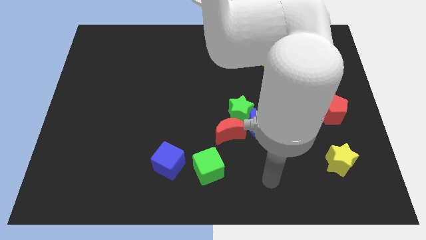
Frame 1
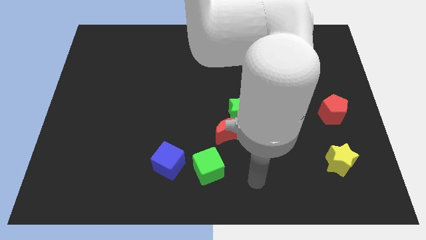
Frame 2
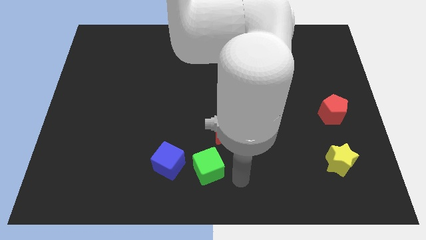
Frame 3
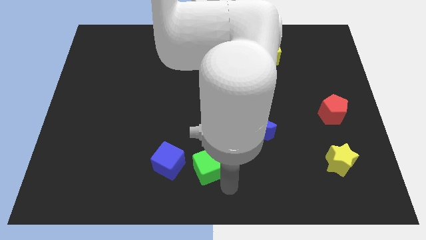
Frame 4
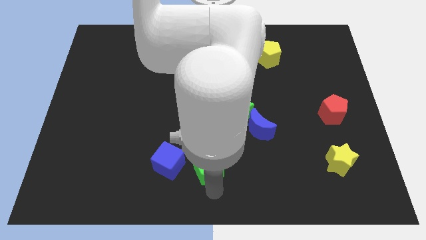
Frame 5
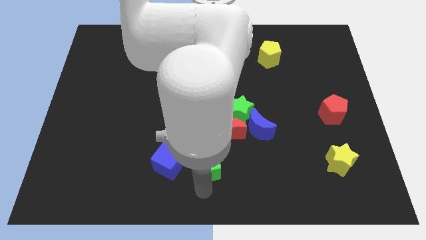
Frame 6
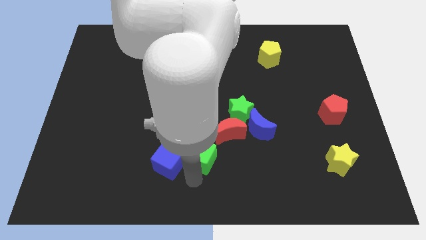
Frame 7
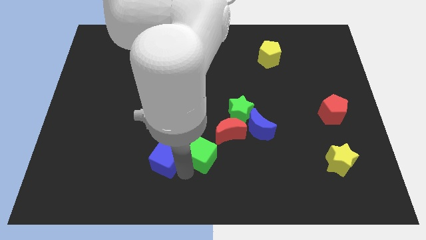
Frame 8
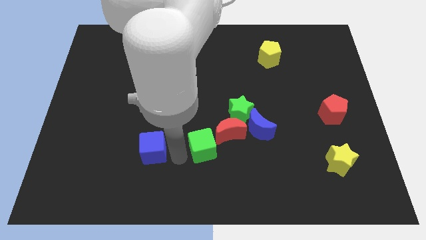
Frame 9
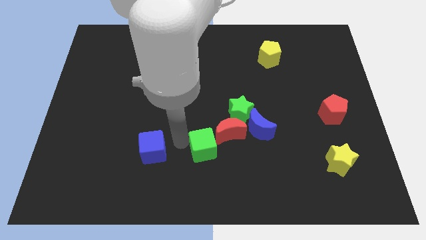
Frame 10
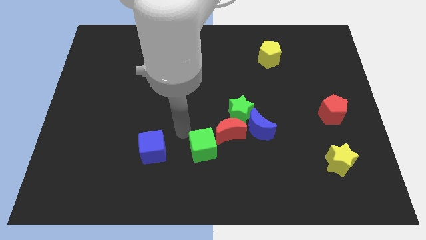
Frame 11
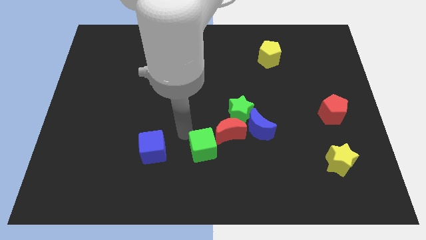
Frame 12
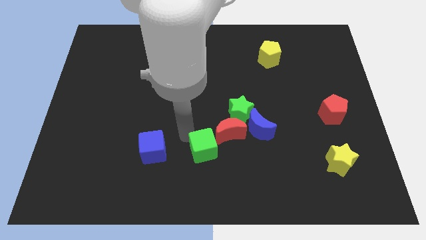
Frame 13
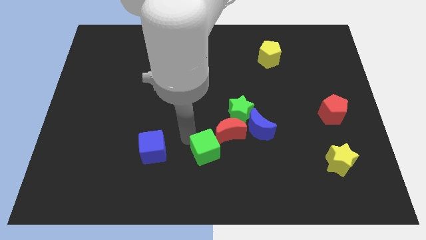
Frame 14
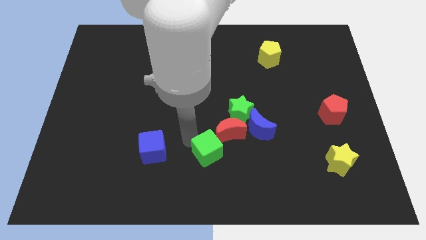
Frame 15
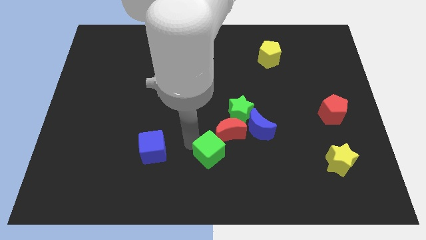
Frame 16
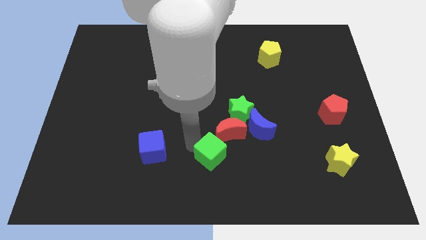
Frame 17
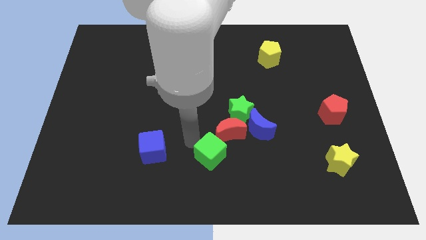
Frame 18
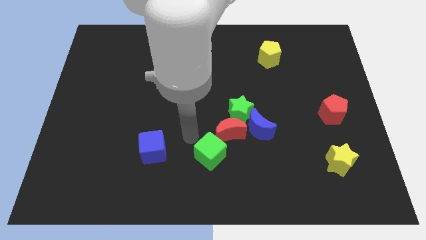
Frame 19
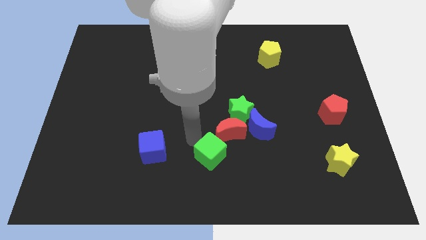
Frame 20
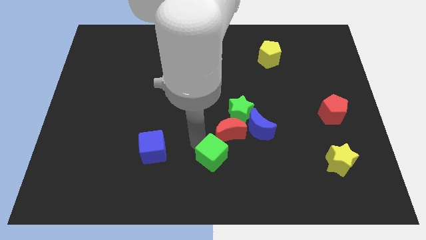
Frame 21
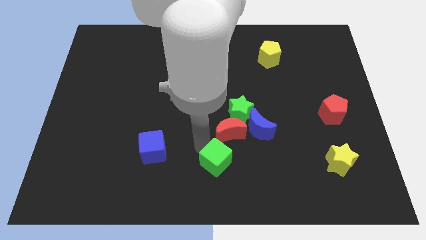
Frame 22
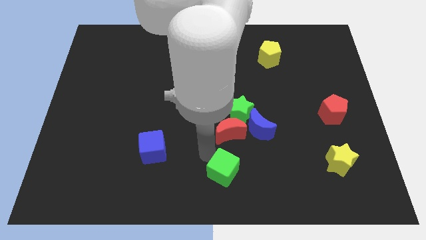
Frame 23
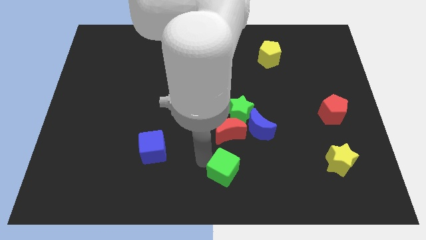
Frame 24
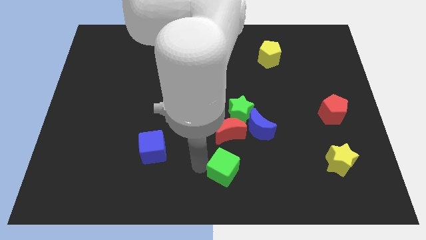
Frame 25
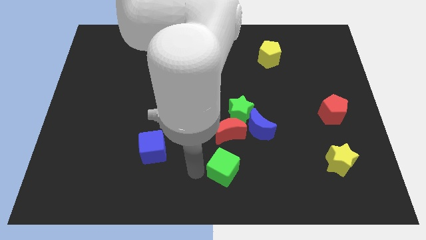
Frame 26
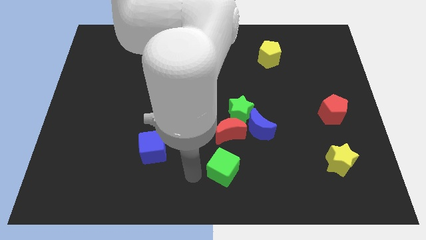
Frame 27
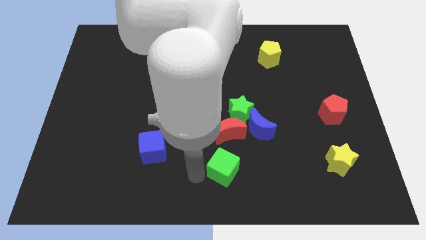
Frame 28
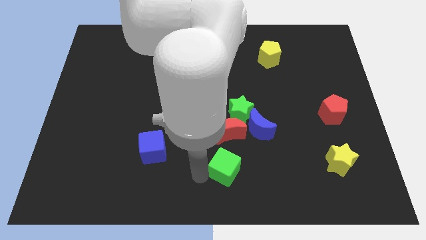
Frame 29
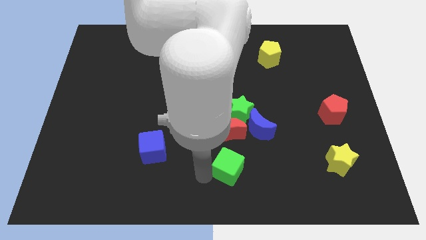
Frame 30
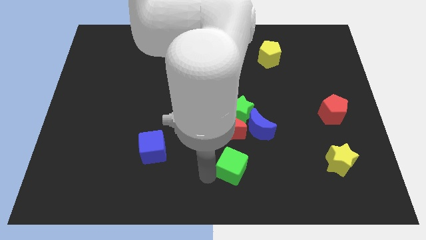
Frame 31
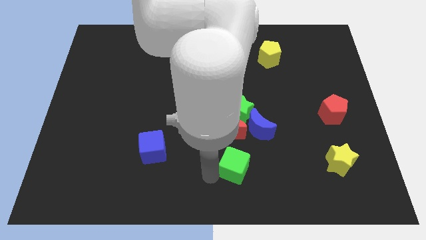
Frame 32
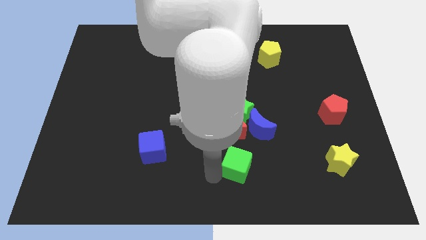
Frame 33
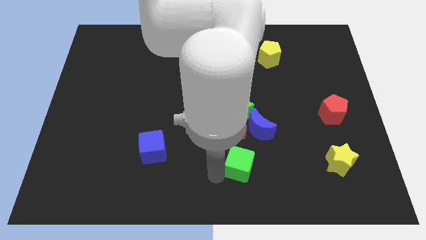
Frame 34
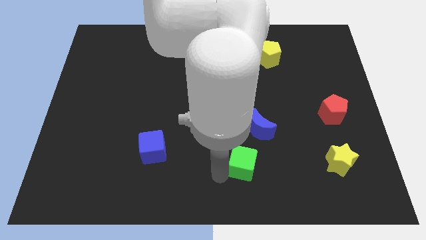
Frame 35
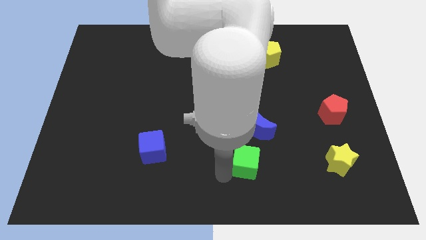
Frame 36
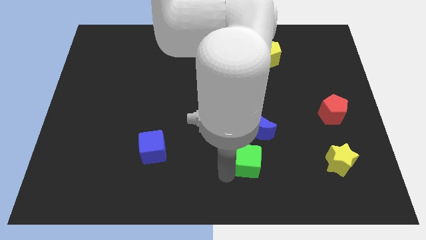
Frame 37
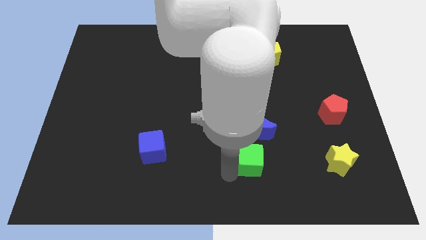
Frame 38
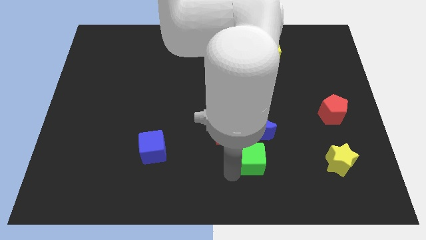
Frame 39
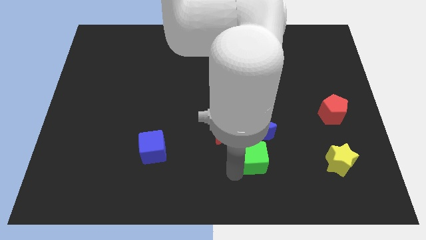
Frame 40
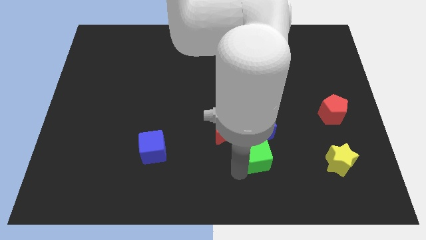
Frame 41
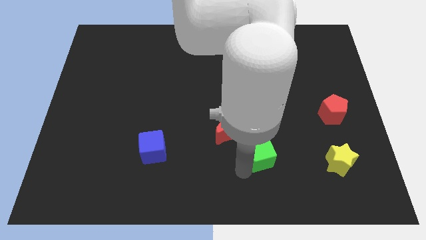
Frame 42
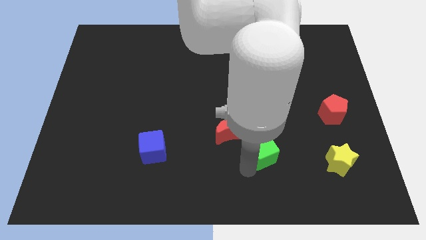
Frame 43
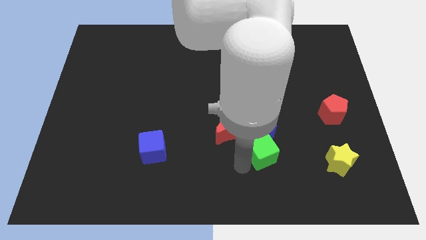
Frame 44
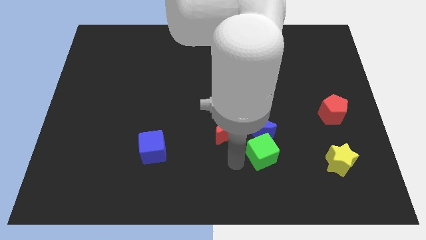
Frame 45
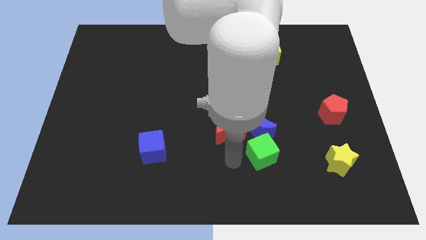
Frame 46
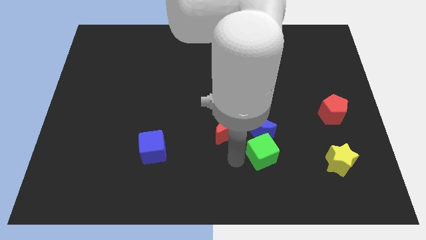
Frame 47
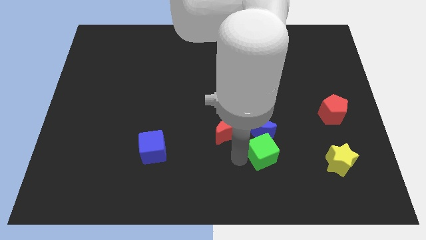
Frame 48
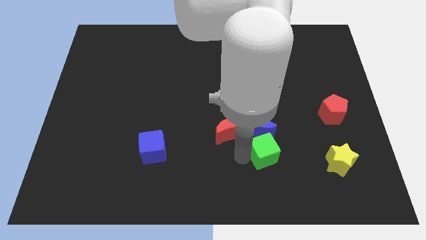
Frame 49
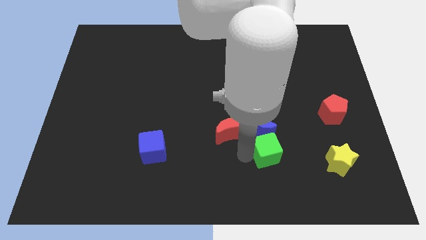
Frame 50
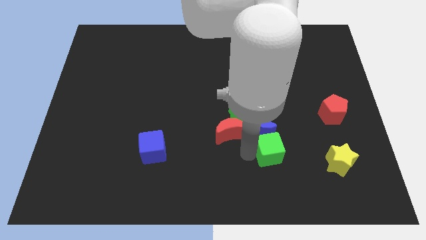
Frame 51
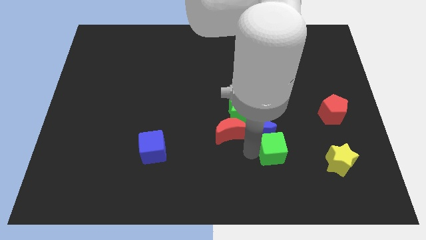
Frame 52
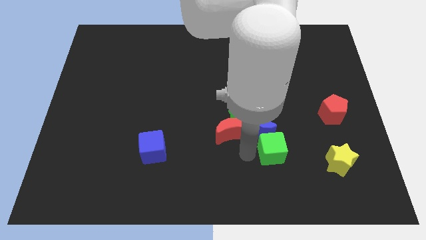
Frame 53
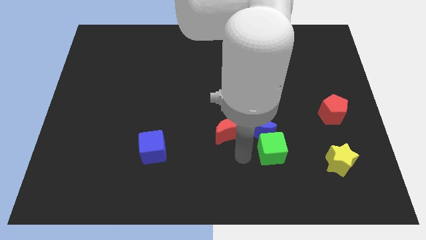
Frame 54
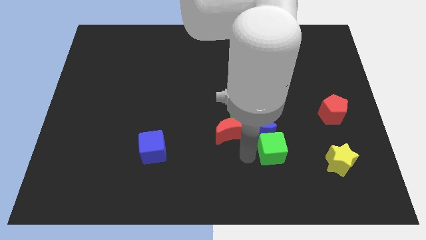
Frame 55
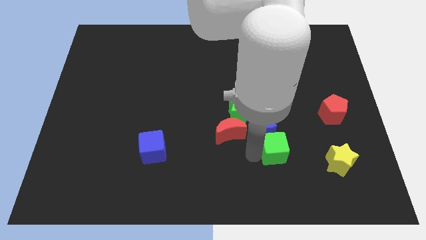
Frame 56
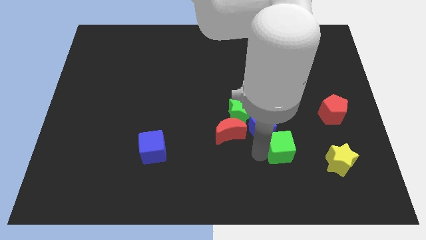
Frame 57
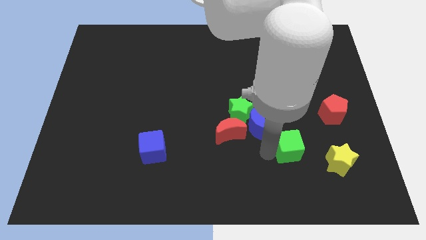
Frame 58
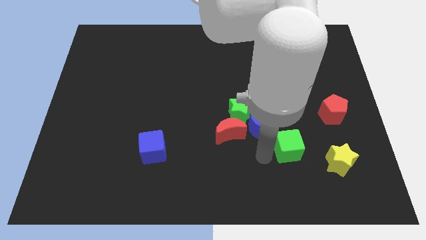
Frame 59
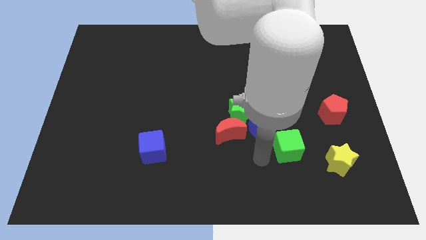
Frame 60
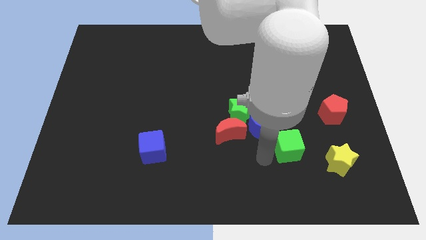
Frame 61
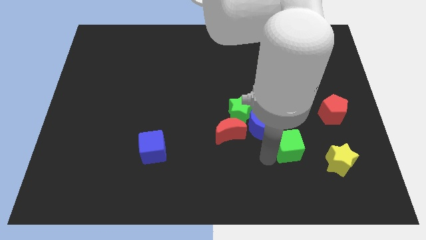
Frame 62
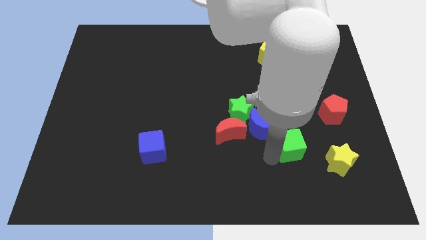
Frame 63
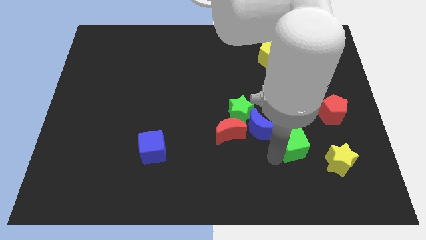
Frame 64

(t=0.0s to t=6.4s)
move the green cube diagonally up and to the left of the yellow star
